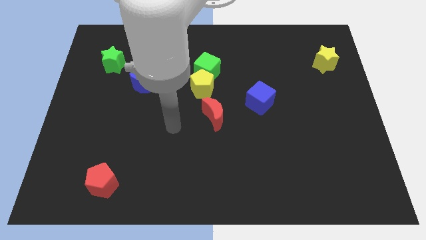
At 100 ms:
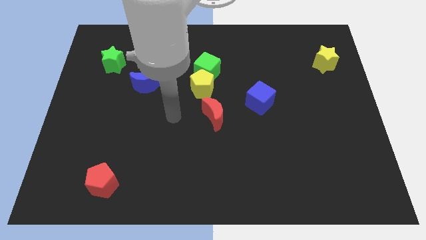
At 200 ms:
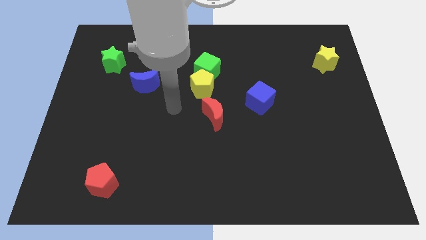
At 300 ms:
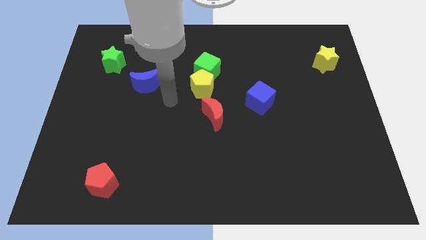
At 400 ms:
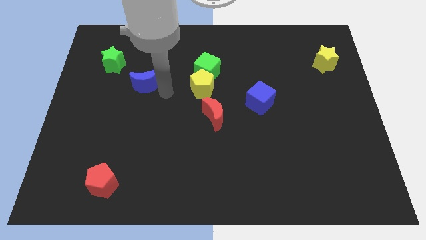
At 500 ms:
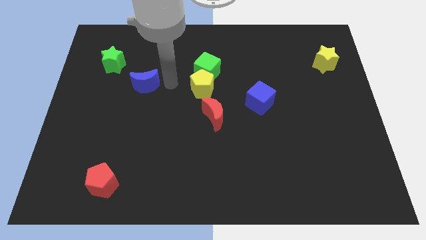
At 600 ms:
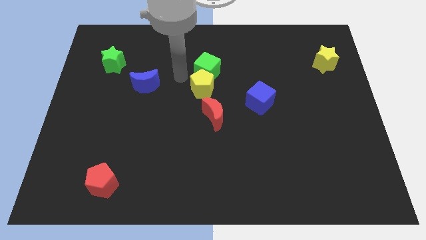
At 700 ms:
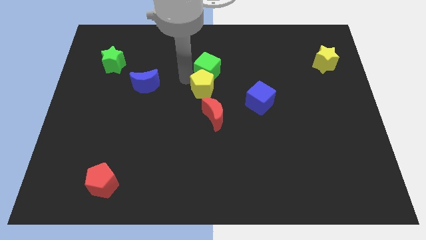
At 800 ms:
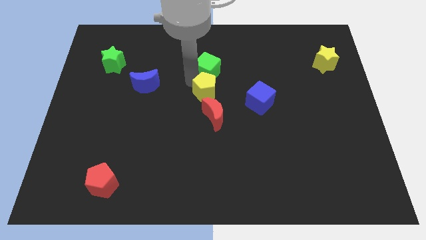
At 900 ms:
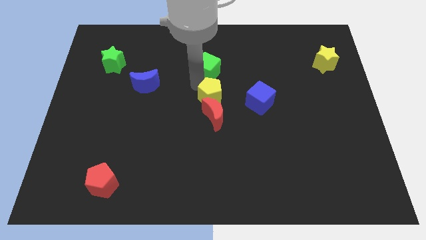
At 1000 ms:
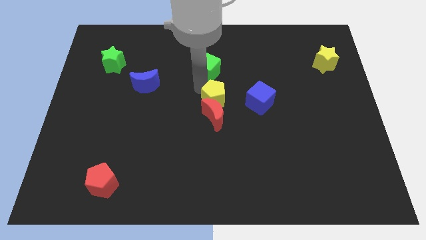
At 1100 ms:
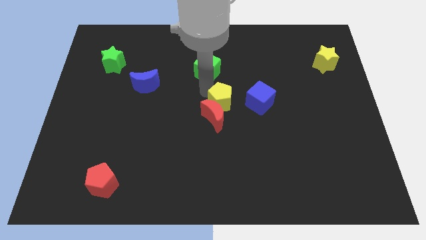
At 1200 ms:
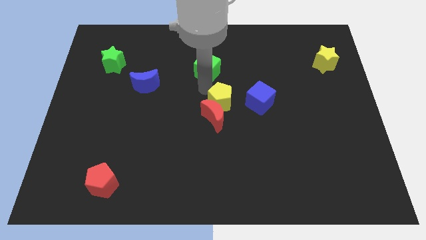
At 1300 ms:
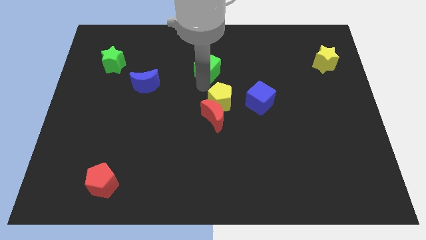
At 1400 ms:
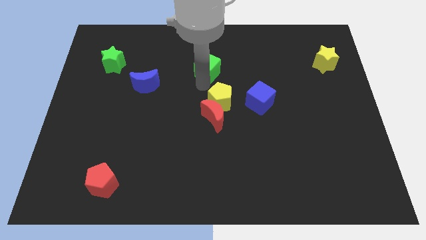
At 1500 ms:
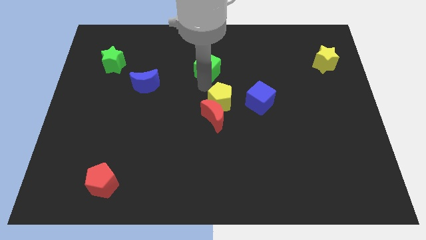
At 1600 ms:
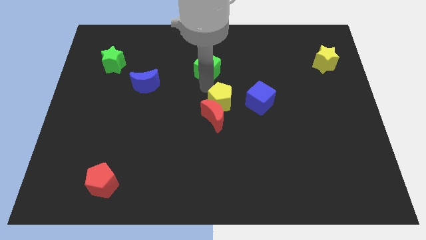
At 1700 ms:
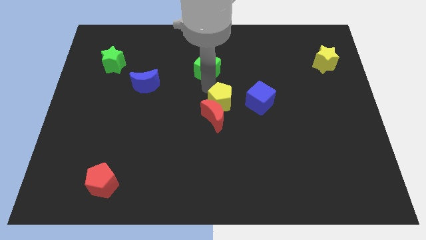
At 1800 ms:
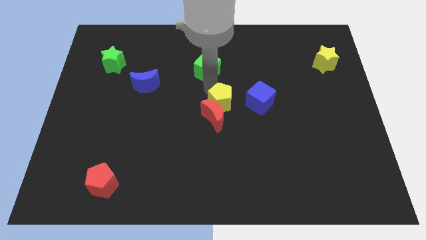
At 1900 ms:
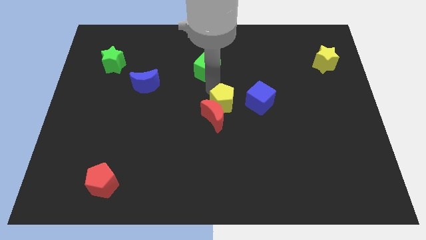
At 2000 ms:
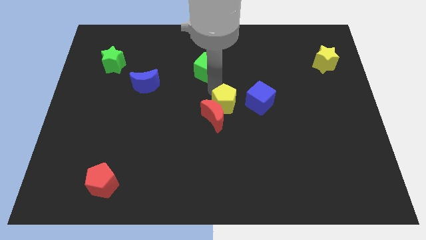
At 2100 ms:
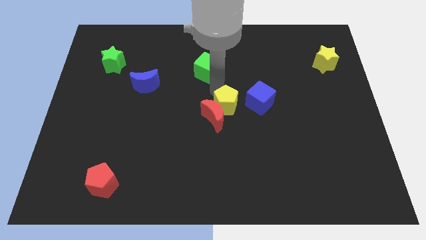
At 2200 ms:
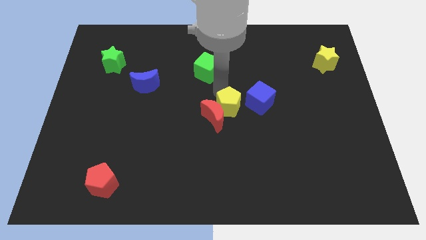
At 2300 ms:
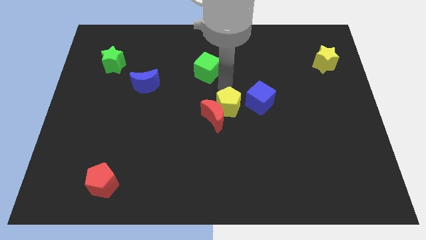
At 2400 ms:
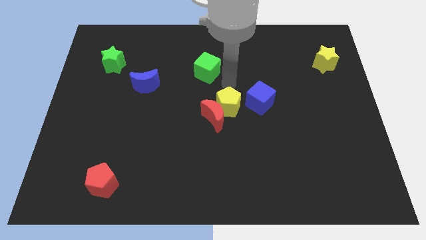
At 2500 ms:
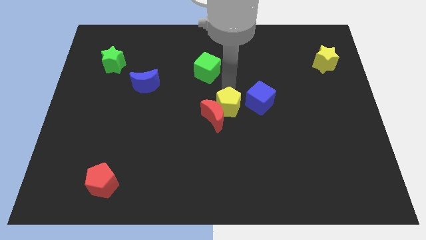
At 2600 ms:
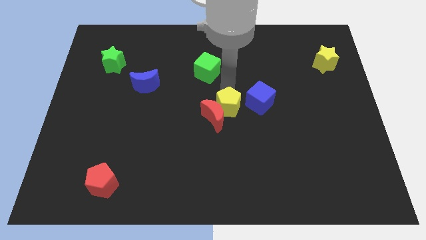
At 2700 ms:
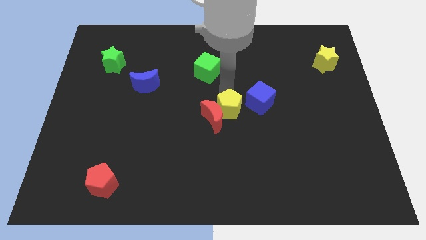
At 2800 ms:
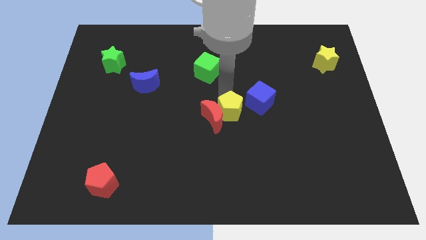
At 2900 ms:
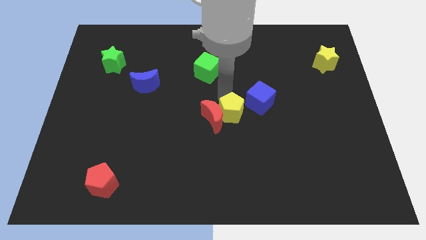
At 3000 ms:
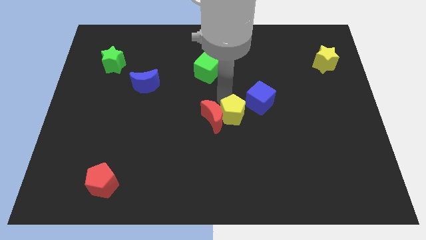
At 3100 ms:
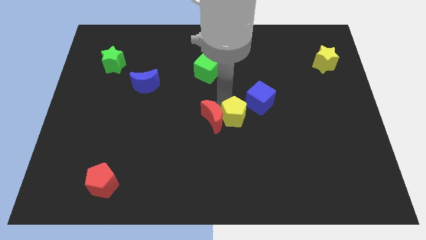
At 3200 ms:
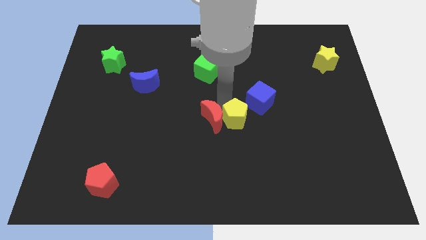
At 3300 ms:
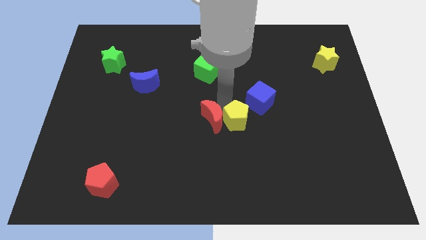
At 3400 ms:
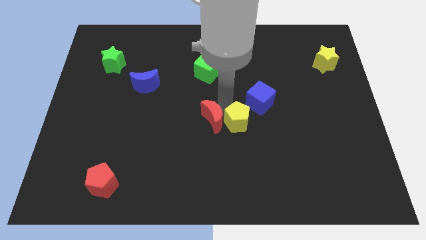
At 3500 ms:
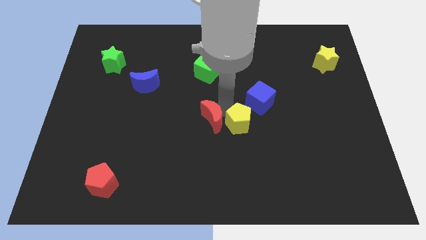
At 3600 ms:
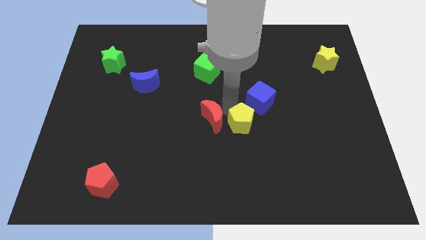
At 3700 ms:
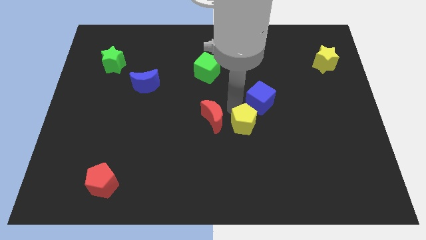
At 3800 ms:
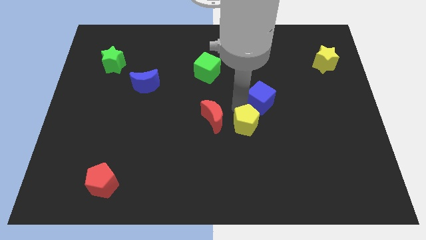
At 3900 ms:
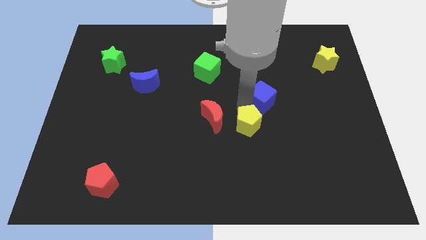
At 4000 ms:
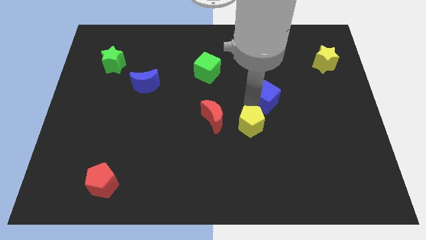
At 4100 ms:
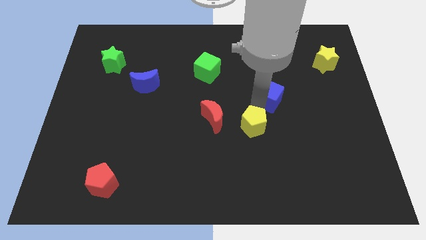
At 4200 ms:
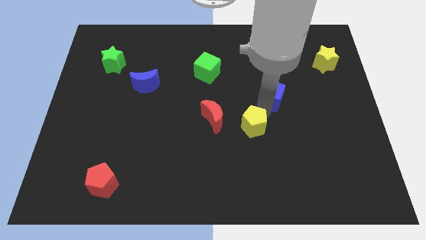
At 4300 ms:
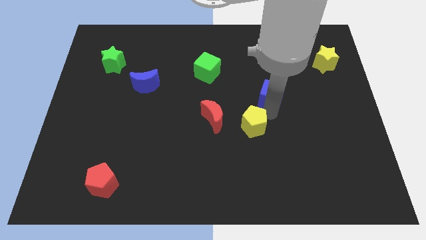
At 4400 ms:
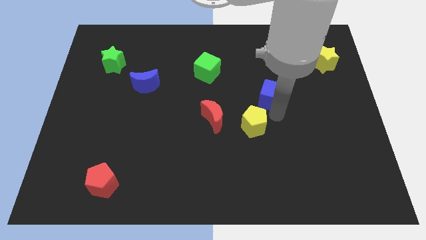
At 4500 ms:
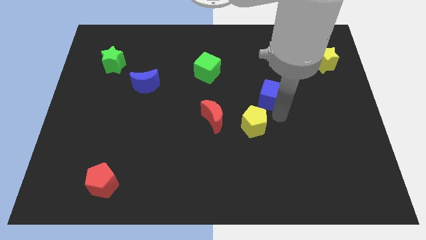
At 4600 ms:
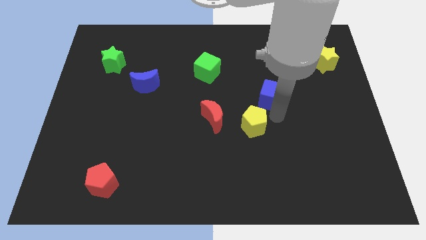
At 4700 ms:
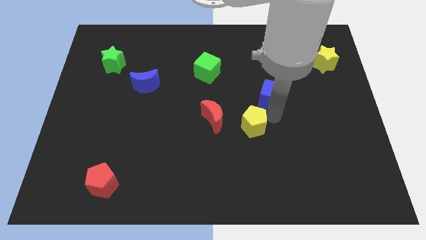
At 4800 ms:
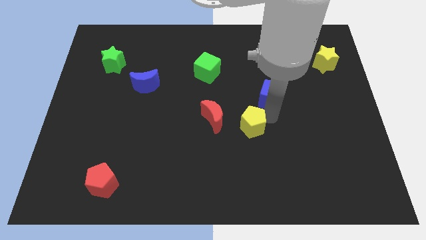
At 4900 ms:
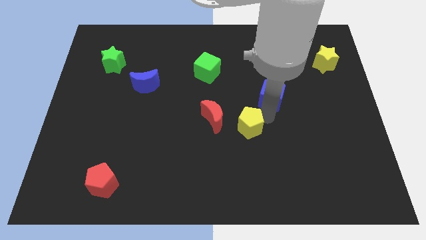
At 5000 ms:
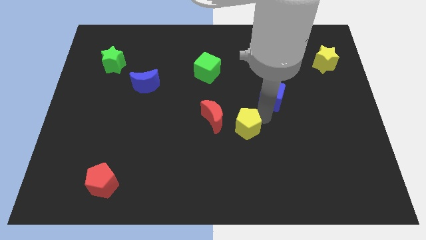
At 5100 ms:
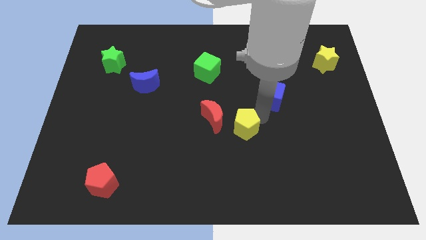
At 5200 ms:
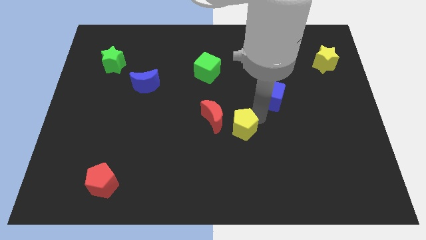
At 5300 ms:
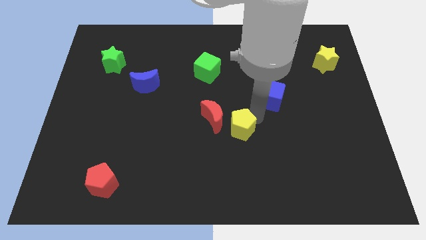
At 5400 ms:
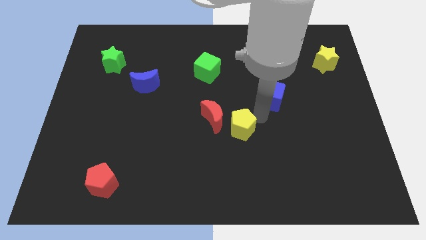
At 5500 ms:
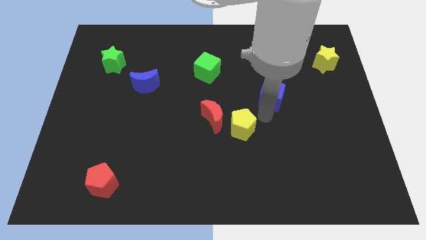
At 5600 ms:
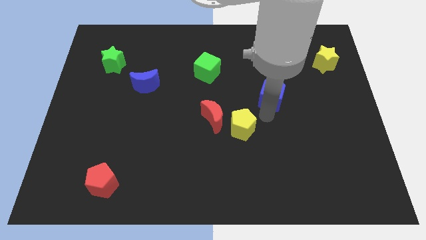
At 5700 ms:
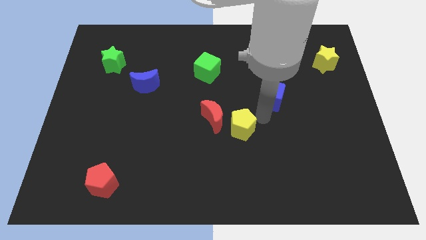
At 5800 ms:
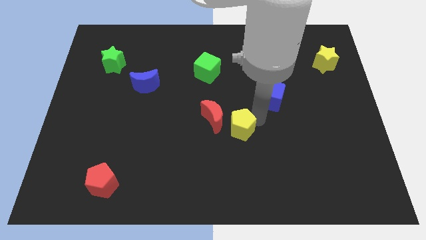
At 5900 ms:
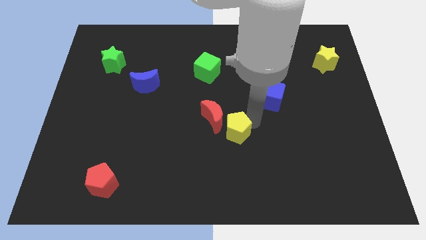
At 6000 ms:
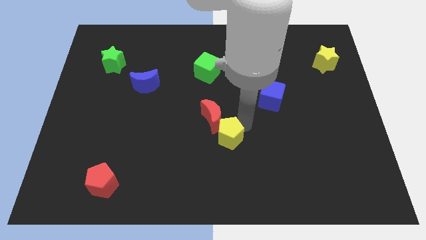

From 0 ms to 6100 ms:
move the yellow pentagon to the bottom of the red moon
